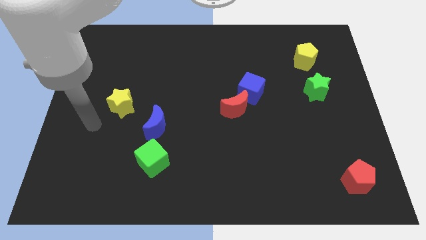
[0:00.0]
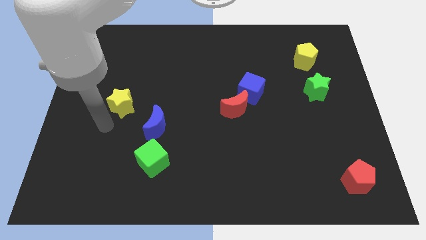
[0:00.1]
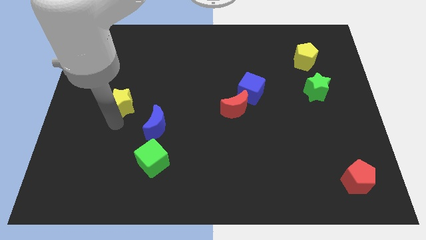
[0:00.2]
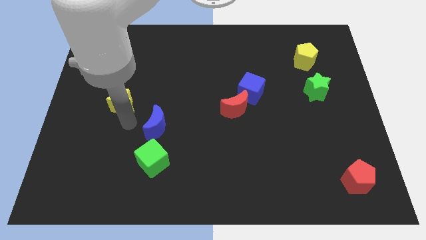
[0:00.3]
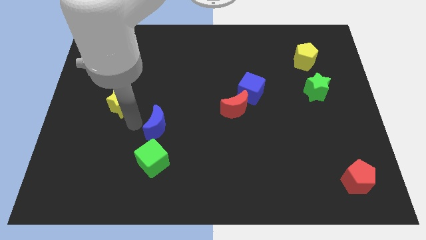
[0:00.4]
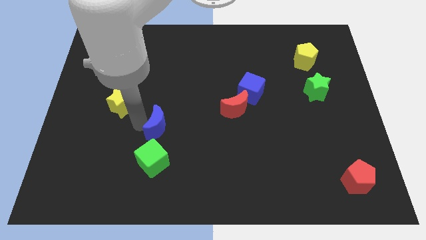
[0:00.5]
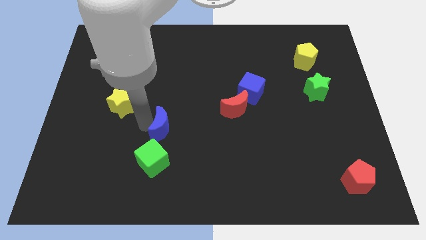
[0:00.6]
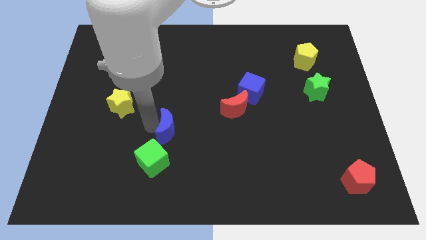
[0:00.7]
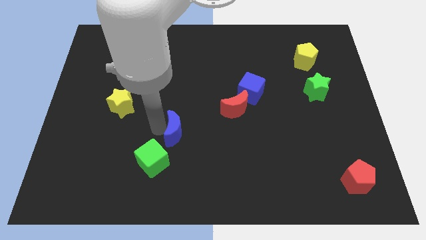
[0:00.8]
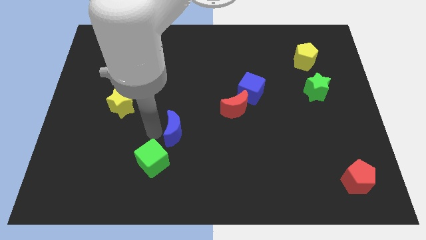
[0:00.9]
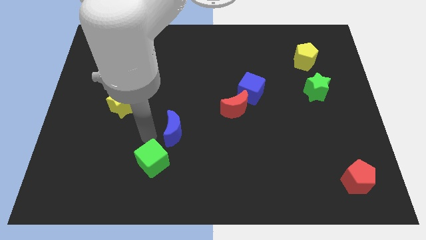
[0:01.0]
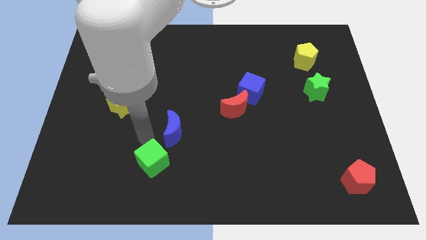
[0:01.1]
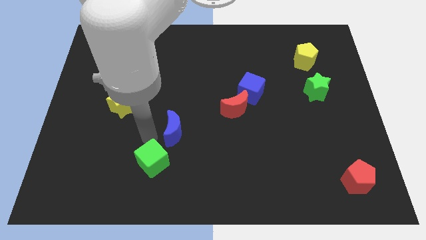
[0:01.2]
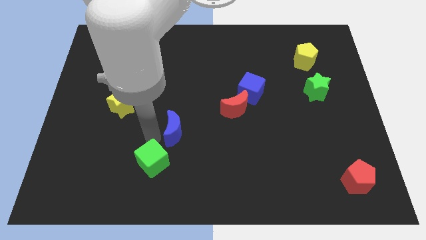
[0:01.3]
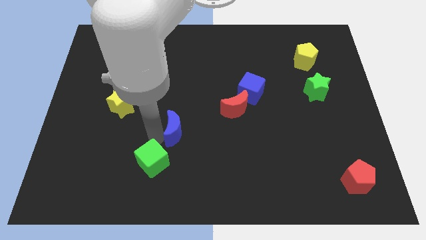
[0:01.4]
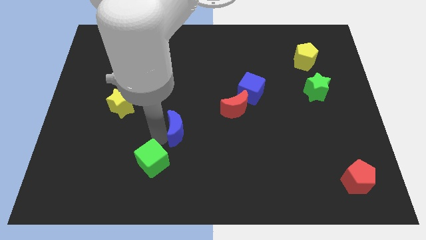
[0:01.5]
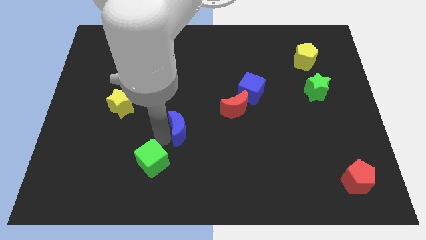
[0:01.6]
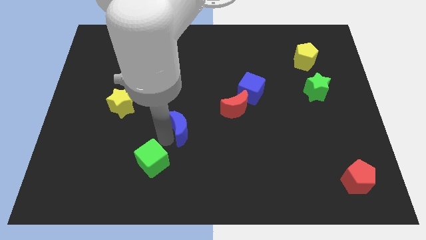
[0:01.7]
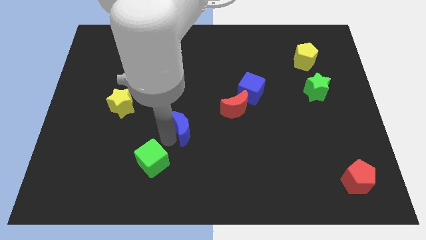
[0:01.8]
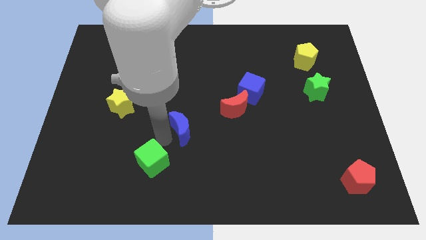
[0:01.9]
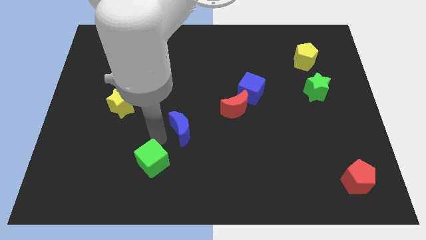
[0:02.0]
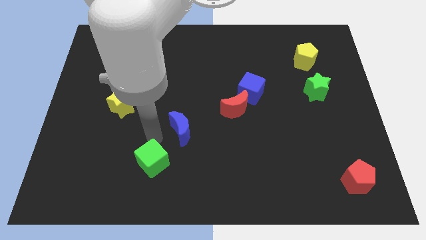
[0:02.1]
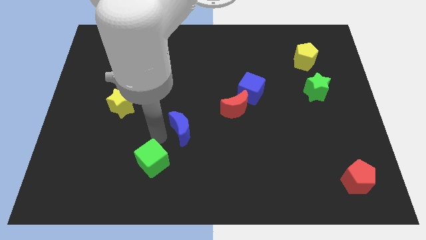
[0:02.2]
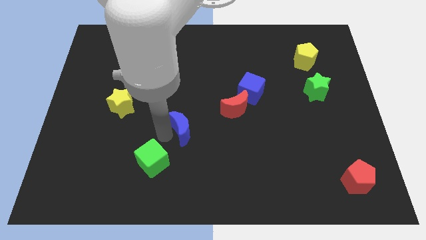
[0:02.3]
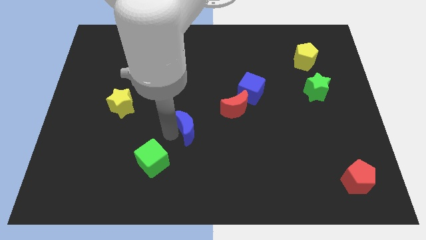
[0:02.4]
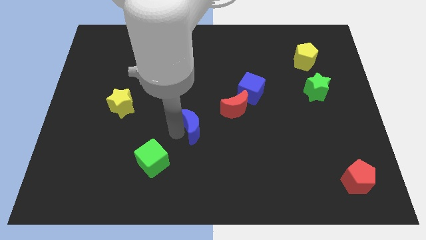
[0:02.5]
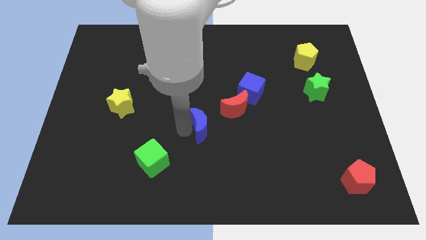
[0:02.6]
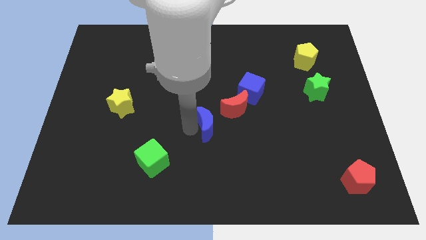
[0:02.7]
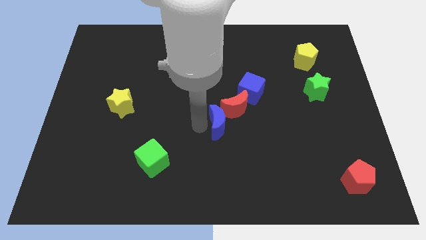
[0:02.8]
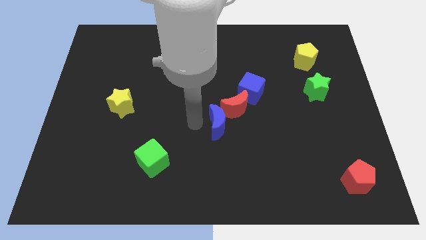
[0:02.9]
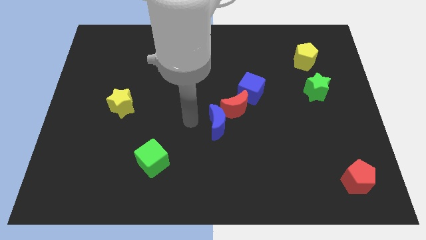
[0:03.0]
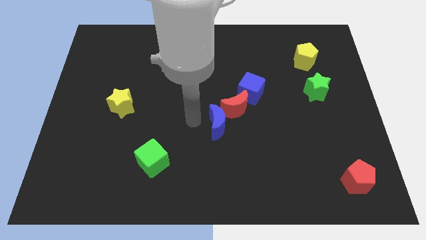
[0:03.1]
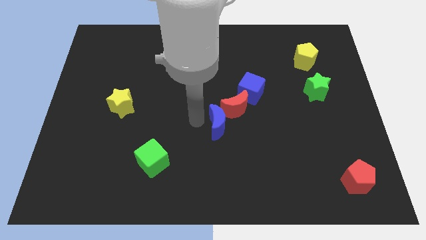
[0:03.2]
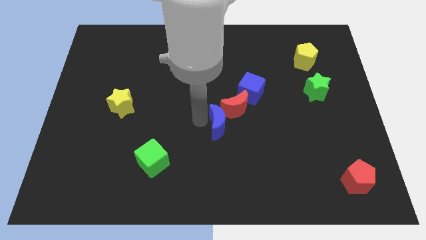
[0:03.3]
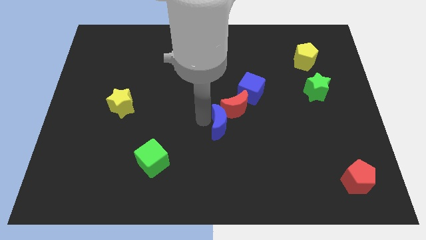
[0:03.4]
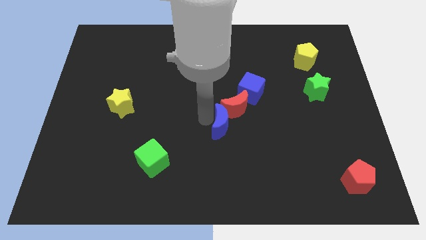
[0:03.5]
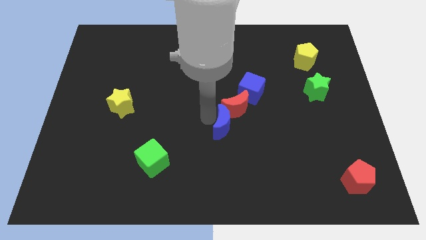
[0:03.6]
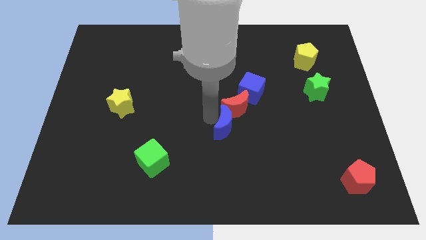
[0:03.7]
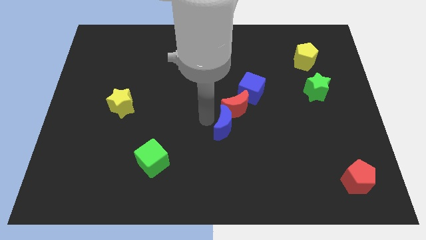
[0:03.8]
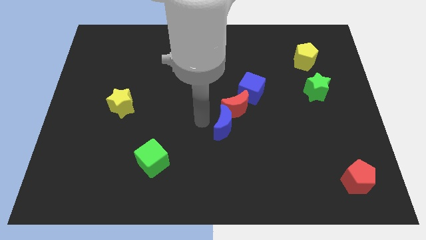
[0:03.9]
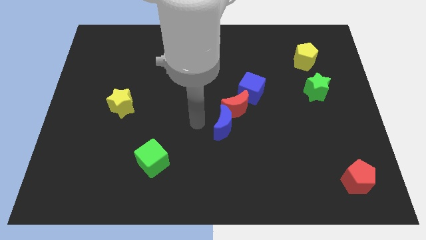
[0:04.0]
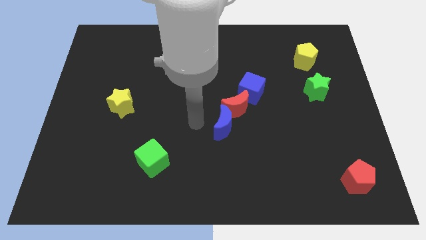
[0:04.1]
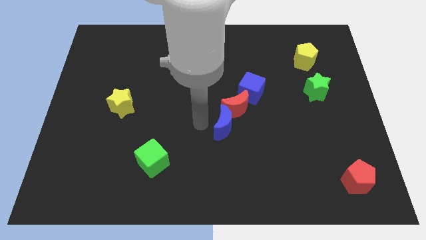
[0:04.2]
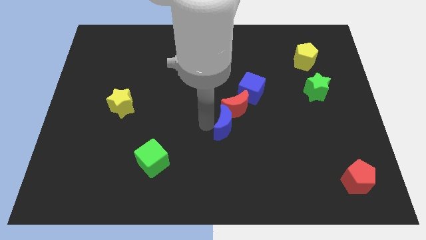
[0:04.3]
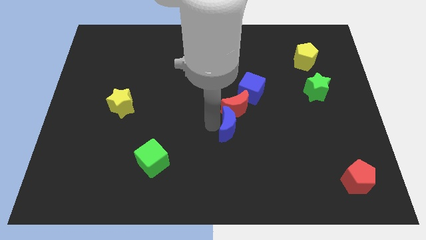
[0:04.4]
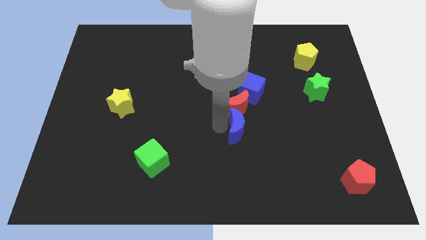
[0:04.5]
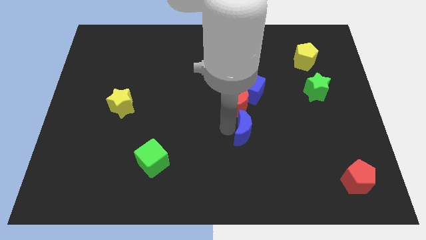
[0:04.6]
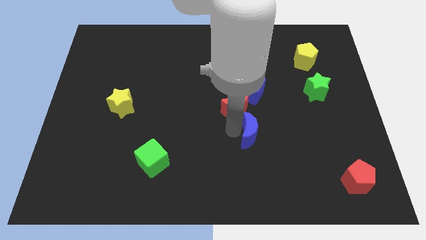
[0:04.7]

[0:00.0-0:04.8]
slide the blue moon right

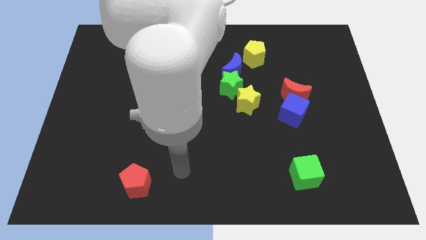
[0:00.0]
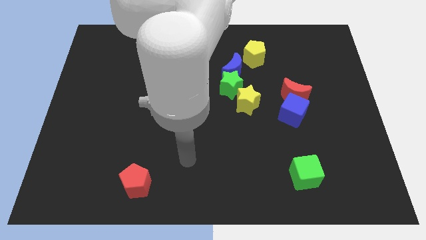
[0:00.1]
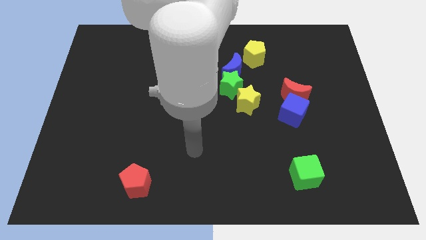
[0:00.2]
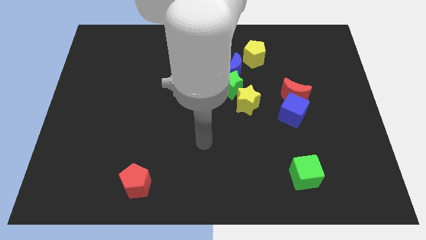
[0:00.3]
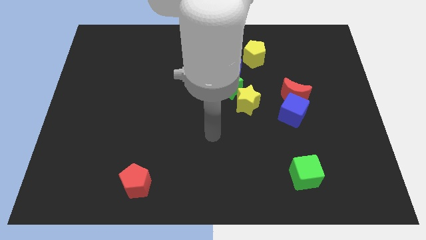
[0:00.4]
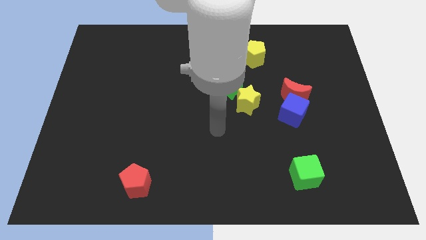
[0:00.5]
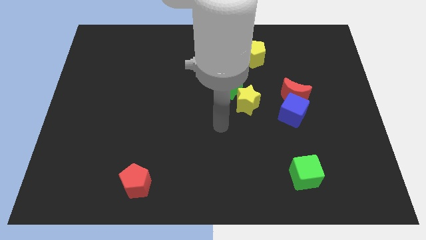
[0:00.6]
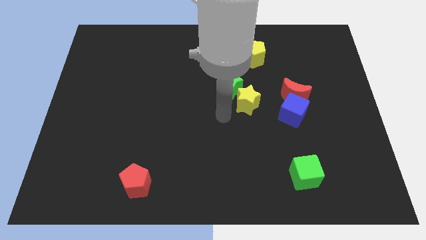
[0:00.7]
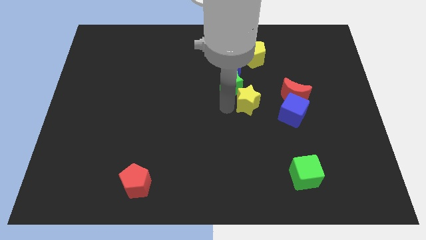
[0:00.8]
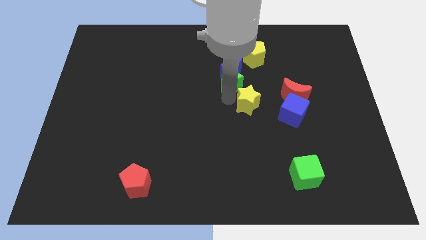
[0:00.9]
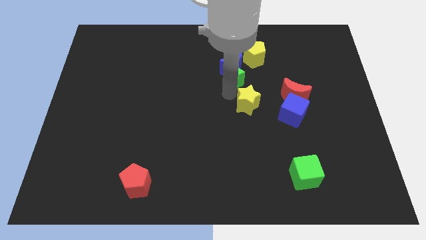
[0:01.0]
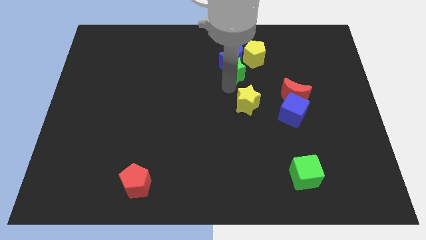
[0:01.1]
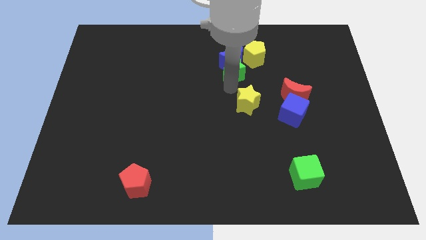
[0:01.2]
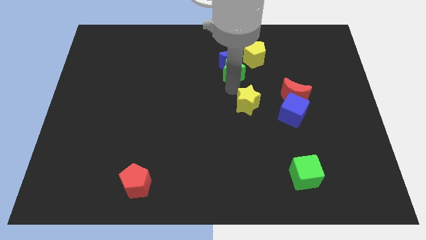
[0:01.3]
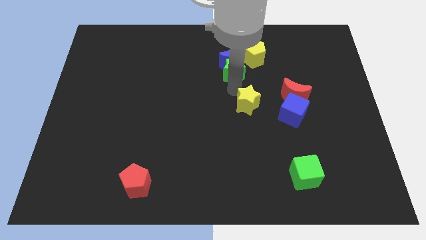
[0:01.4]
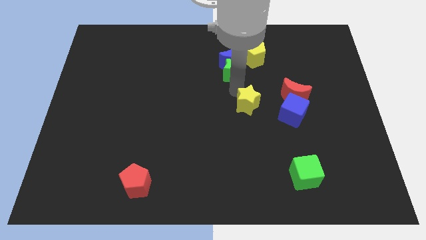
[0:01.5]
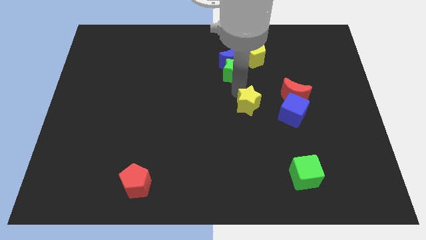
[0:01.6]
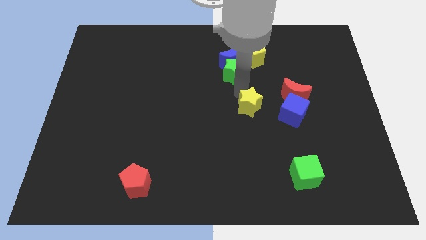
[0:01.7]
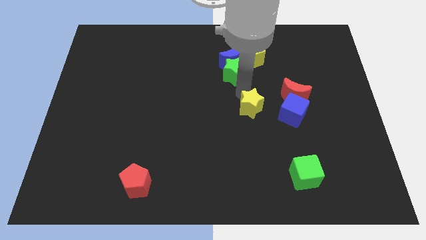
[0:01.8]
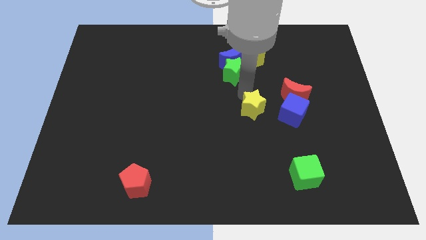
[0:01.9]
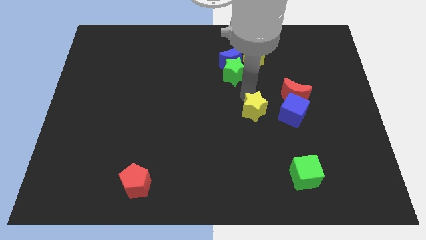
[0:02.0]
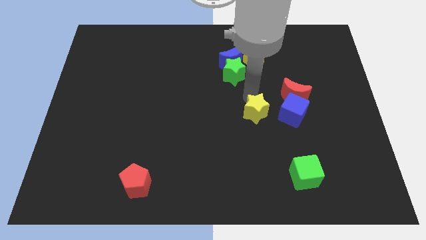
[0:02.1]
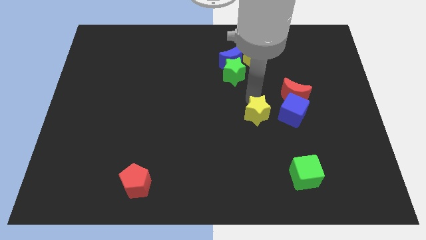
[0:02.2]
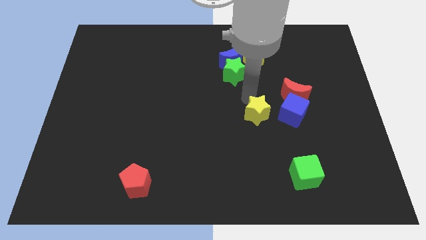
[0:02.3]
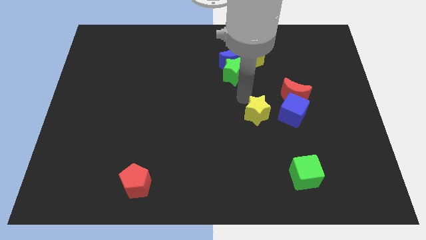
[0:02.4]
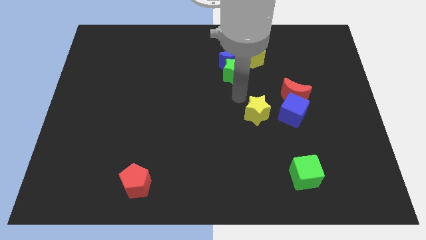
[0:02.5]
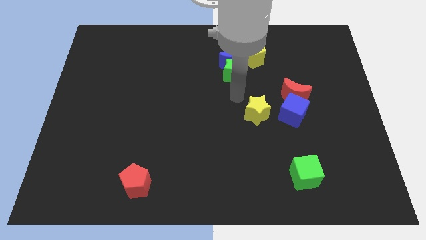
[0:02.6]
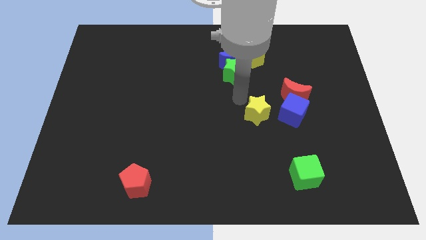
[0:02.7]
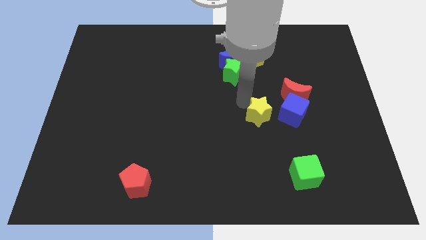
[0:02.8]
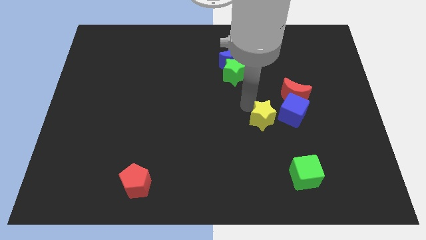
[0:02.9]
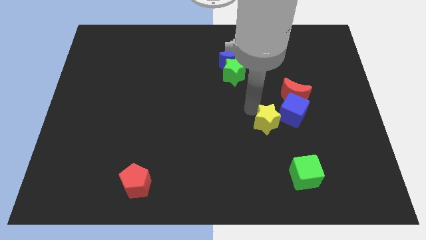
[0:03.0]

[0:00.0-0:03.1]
slightly push the yellow star downwards and then to the right

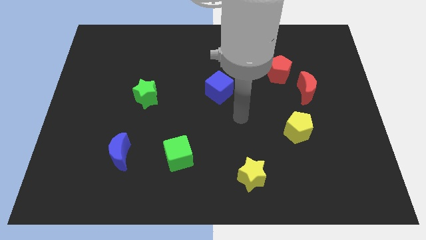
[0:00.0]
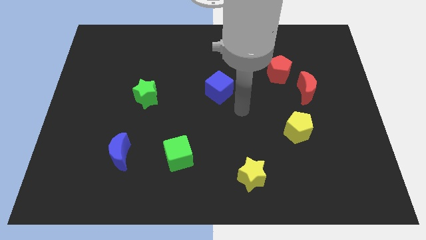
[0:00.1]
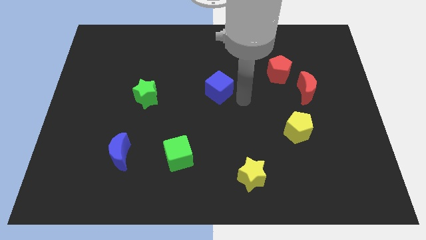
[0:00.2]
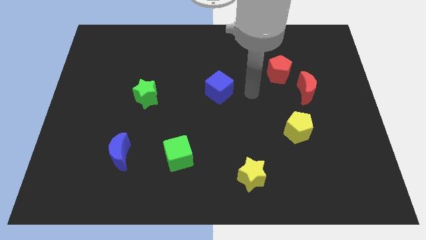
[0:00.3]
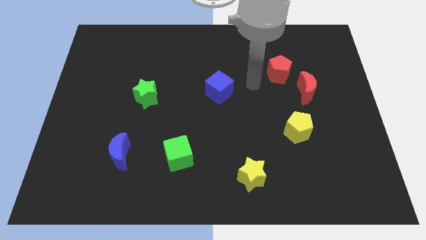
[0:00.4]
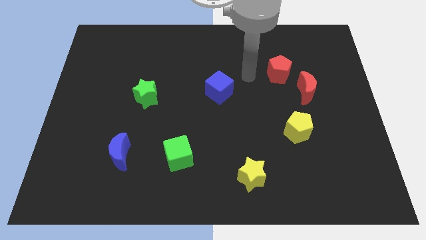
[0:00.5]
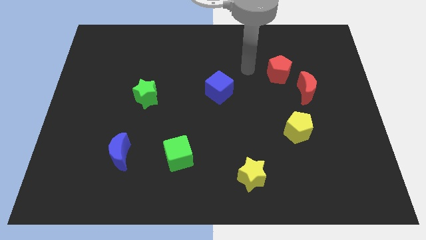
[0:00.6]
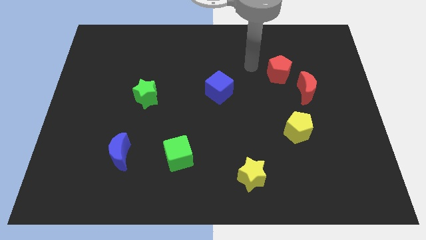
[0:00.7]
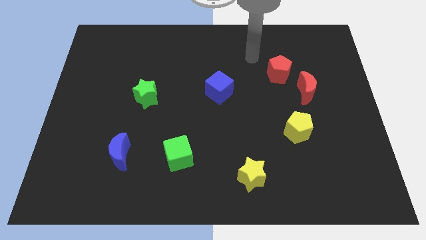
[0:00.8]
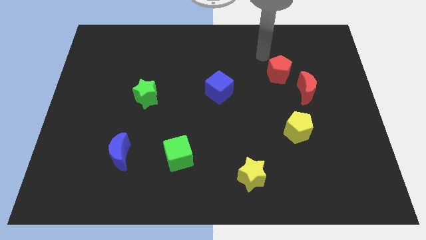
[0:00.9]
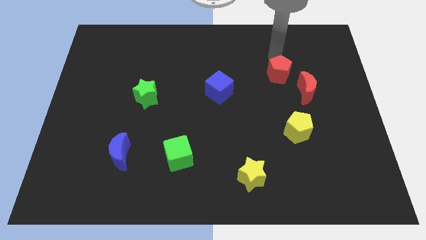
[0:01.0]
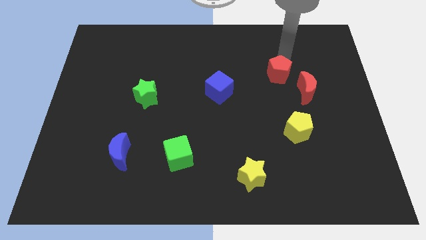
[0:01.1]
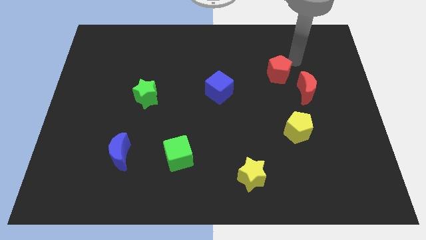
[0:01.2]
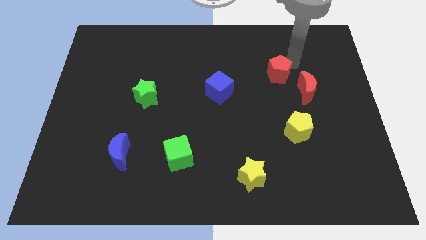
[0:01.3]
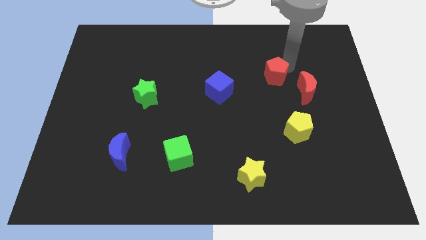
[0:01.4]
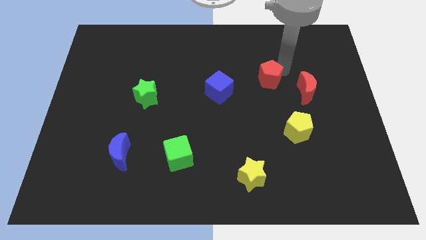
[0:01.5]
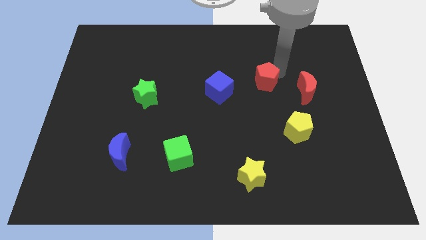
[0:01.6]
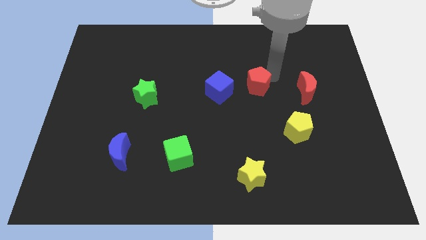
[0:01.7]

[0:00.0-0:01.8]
slide the red pentagon down and then left a little bit
